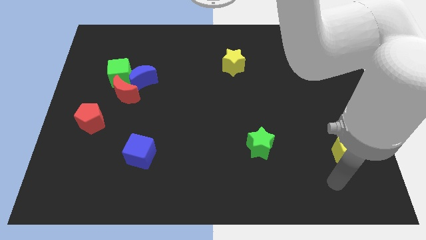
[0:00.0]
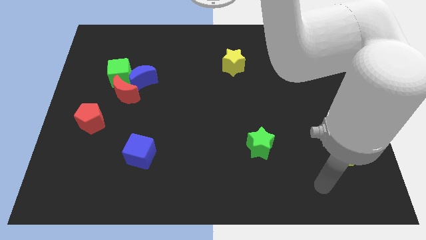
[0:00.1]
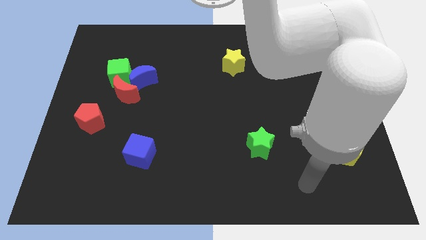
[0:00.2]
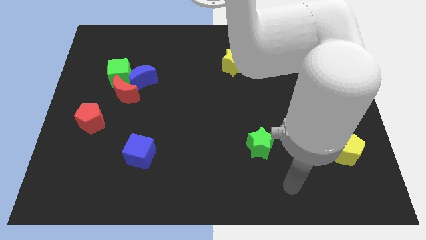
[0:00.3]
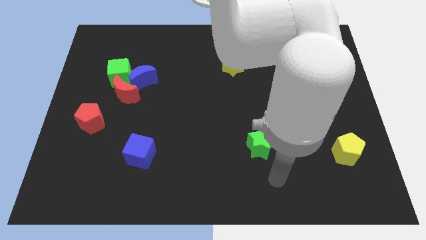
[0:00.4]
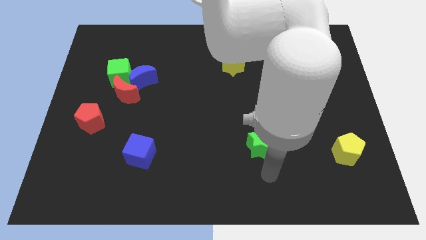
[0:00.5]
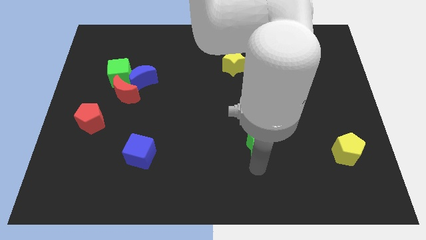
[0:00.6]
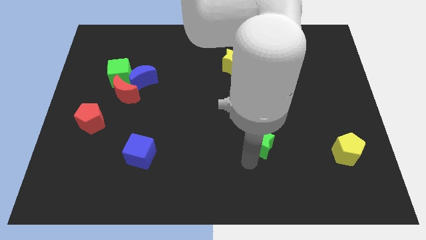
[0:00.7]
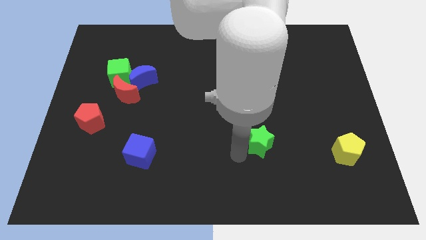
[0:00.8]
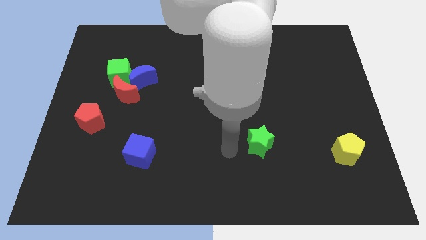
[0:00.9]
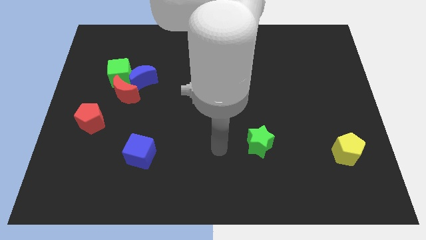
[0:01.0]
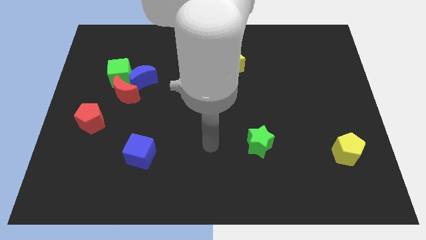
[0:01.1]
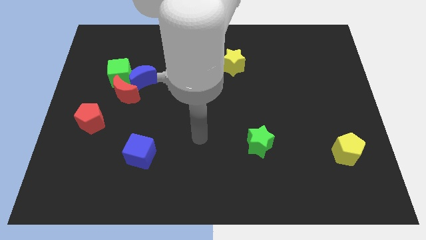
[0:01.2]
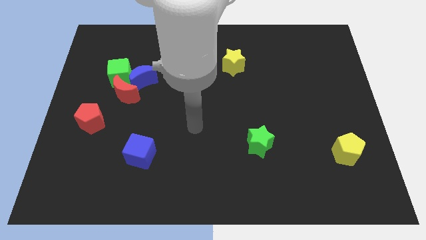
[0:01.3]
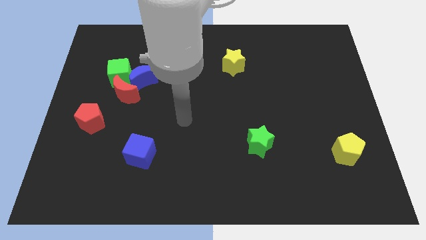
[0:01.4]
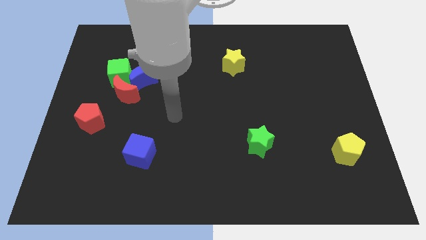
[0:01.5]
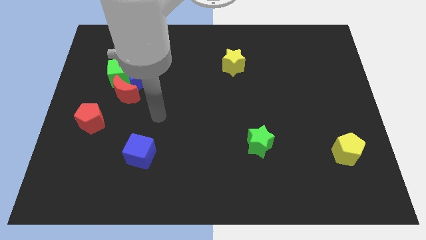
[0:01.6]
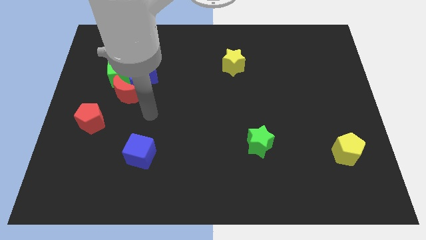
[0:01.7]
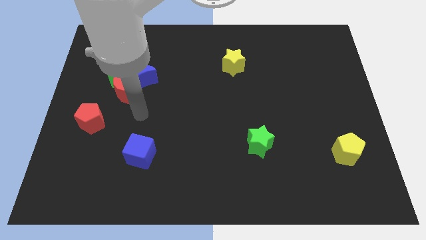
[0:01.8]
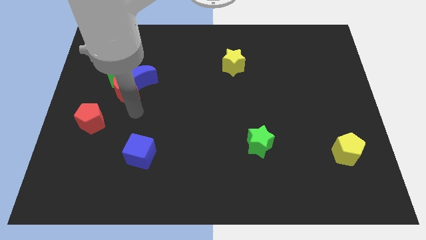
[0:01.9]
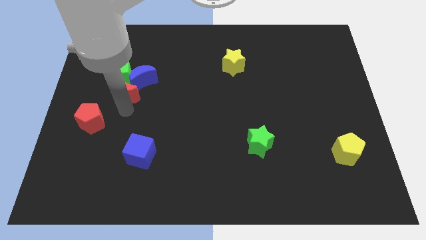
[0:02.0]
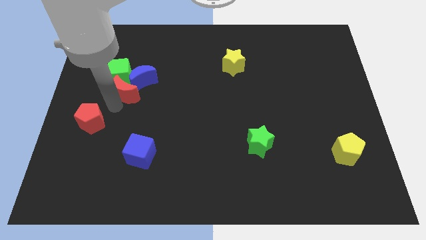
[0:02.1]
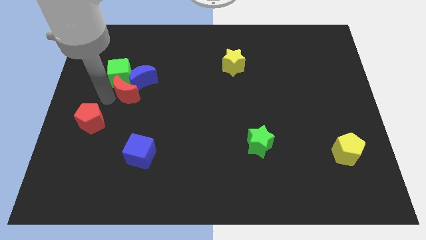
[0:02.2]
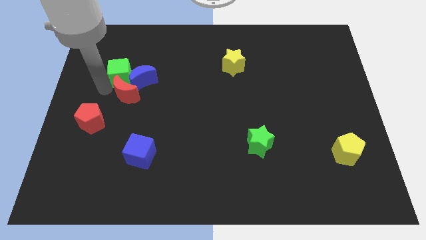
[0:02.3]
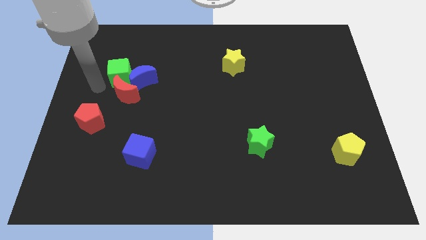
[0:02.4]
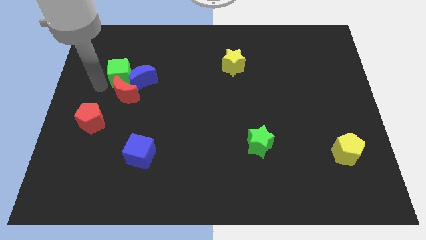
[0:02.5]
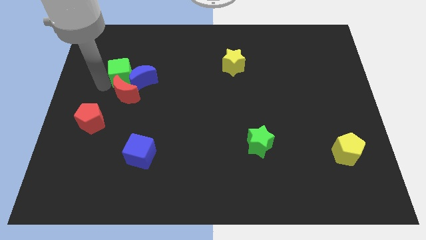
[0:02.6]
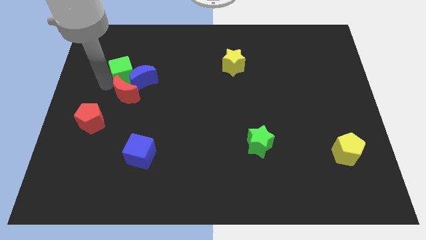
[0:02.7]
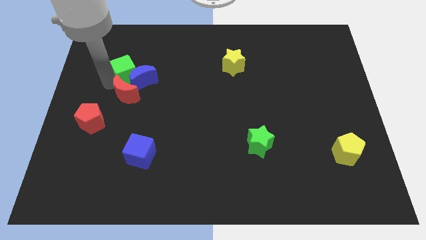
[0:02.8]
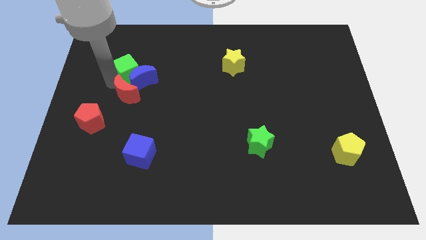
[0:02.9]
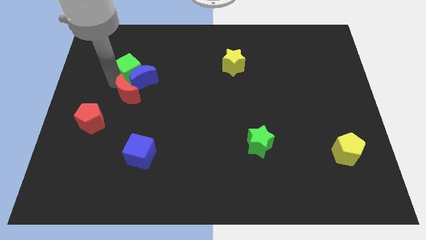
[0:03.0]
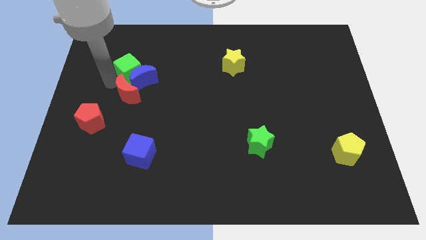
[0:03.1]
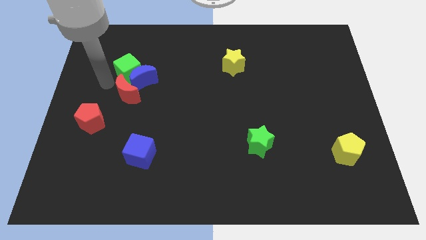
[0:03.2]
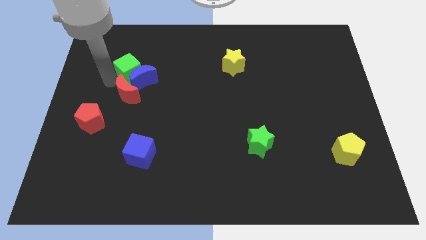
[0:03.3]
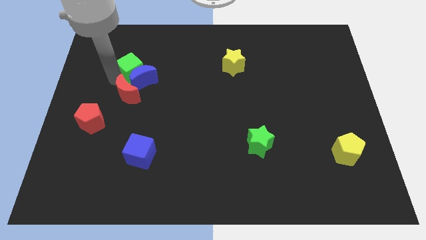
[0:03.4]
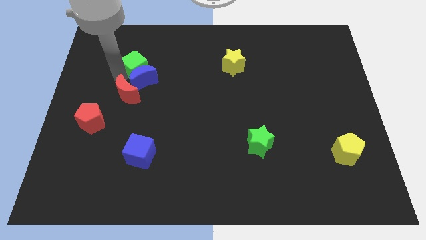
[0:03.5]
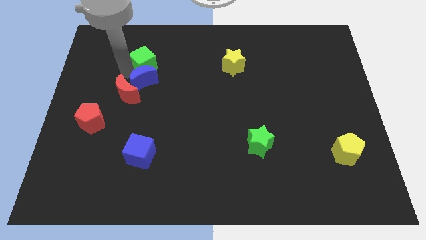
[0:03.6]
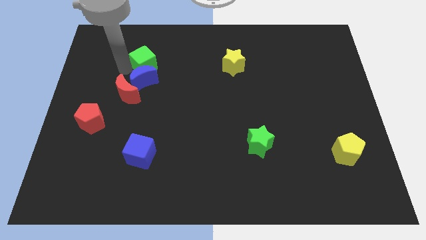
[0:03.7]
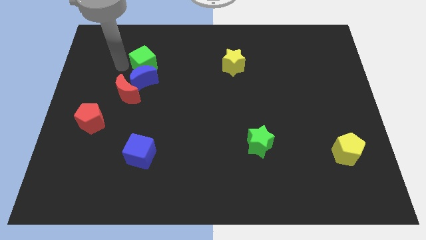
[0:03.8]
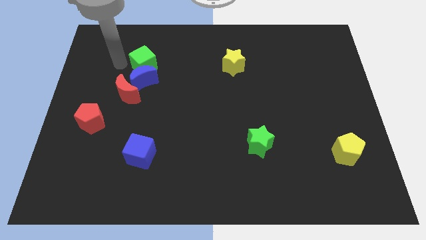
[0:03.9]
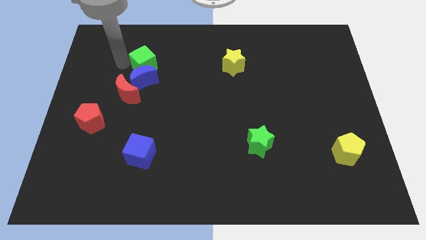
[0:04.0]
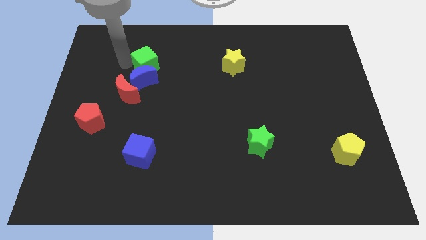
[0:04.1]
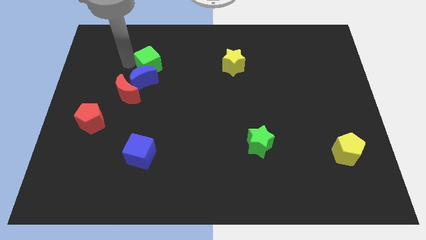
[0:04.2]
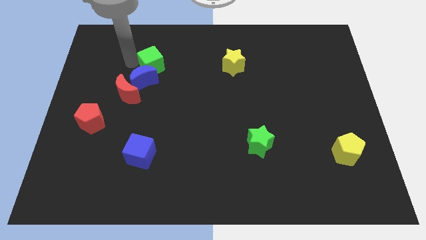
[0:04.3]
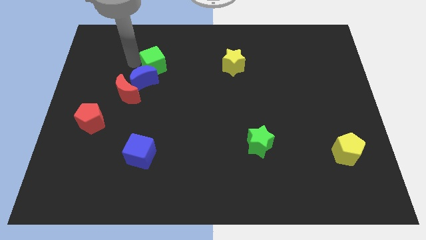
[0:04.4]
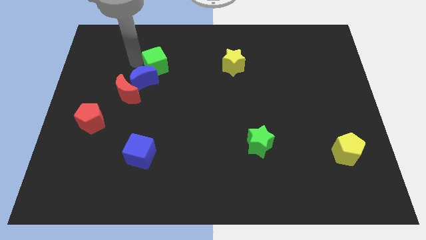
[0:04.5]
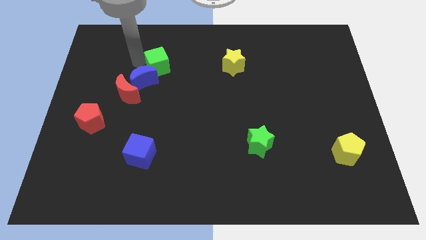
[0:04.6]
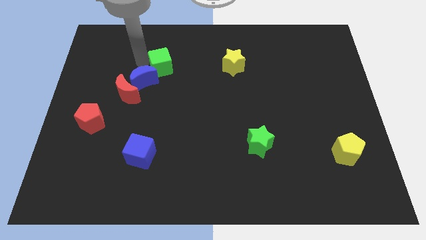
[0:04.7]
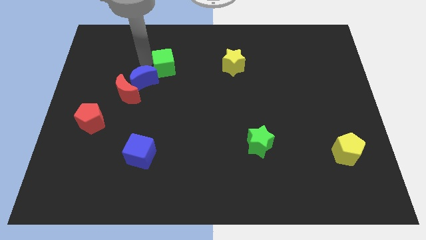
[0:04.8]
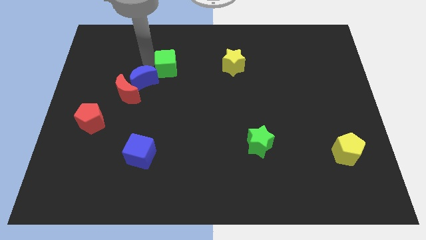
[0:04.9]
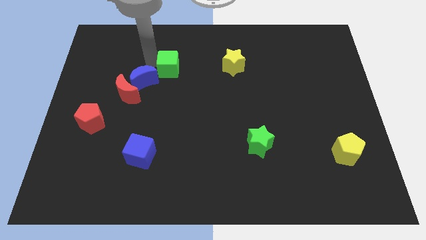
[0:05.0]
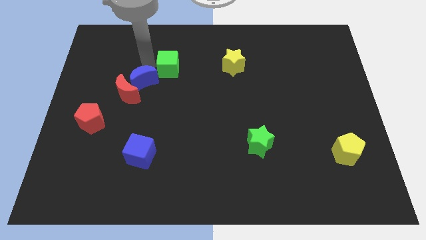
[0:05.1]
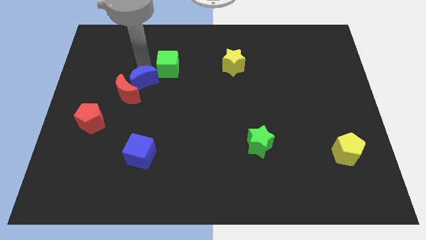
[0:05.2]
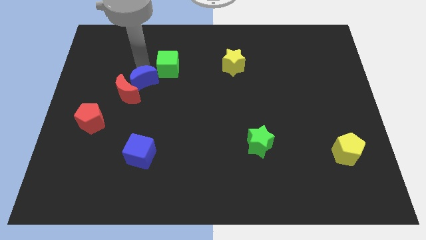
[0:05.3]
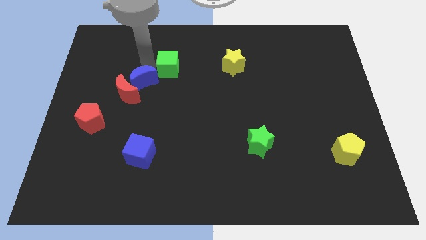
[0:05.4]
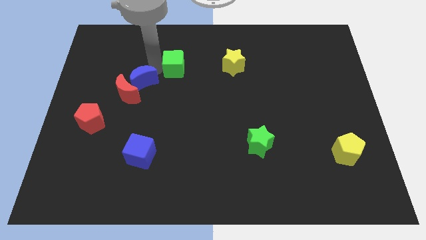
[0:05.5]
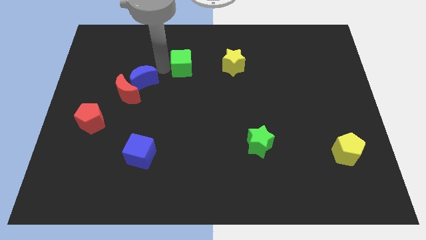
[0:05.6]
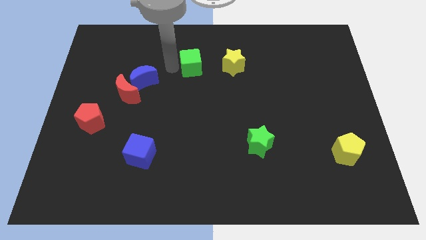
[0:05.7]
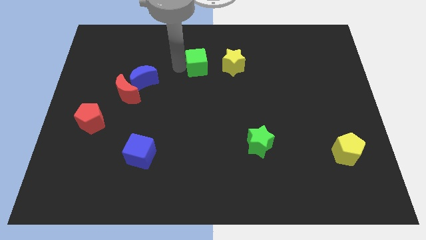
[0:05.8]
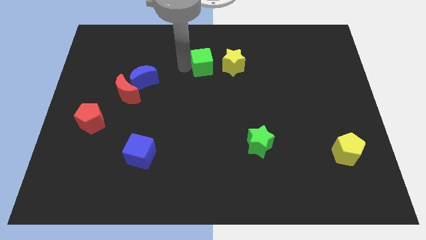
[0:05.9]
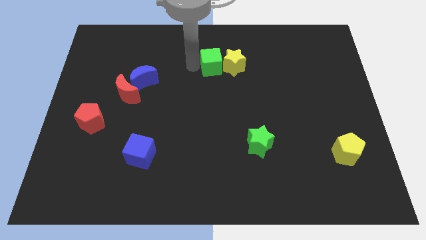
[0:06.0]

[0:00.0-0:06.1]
push the green cube next to the yellow star

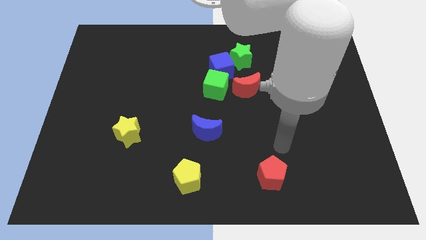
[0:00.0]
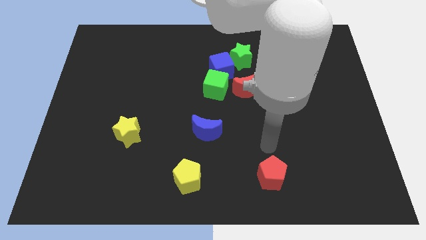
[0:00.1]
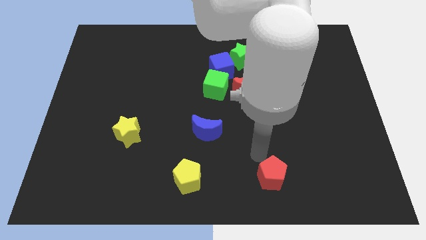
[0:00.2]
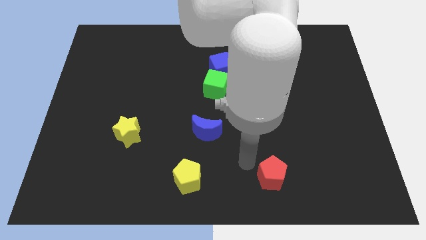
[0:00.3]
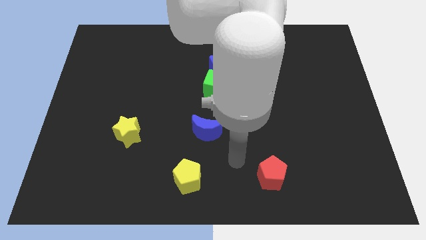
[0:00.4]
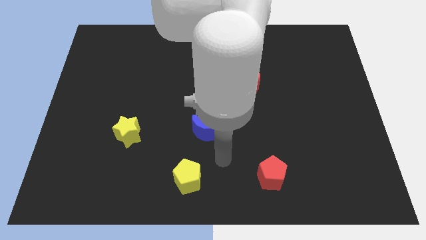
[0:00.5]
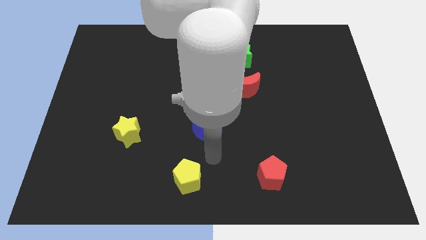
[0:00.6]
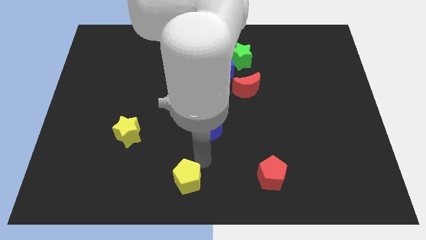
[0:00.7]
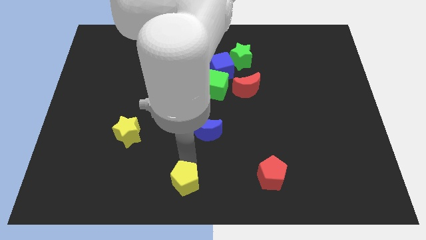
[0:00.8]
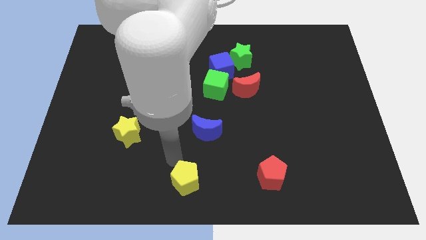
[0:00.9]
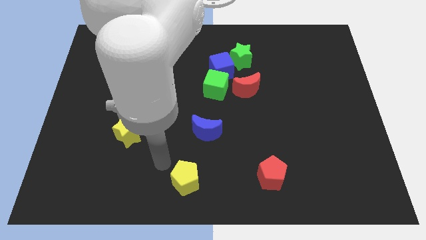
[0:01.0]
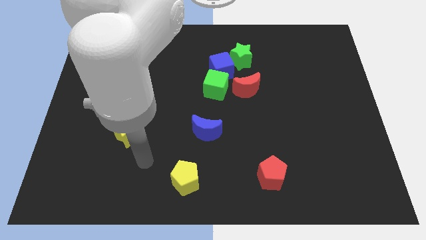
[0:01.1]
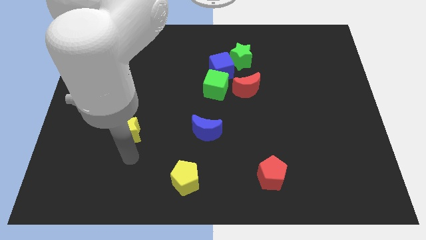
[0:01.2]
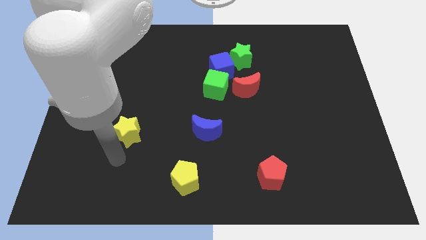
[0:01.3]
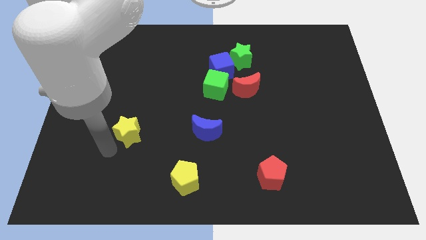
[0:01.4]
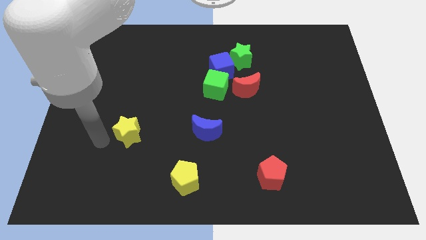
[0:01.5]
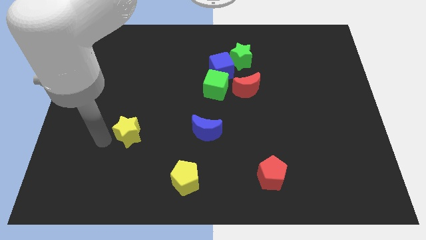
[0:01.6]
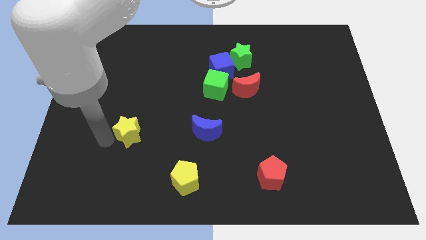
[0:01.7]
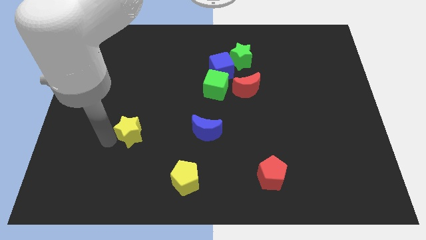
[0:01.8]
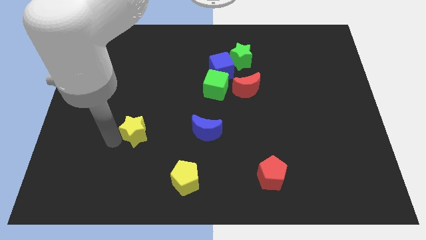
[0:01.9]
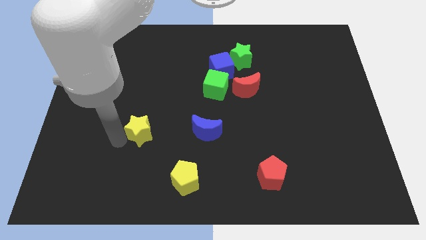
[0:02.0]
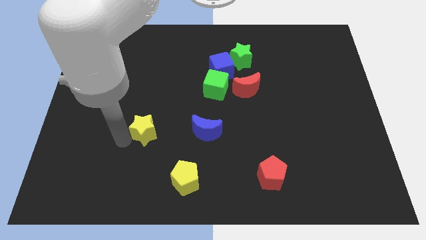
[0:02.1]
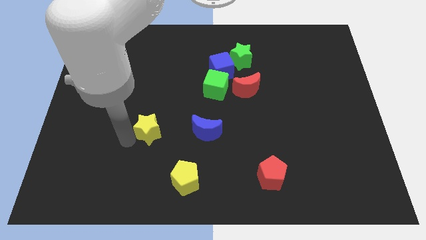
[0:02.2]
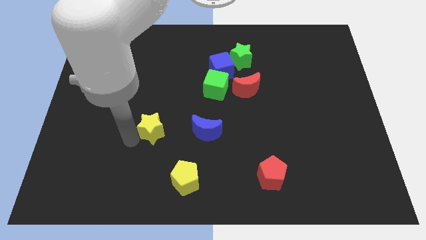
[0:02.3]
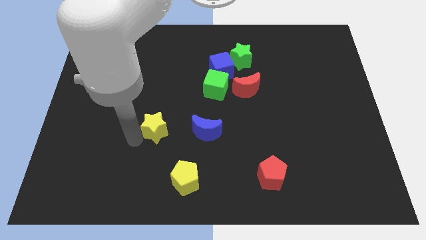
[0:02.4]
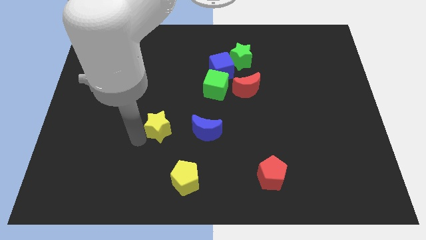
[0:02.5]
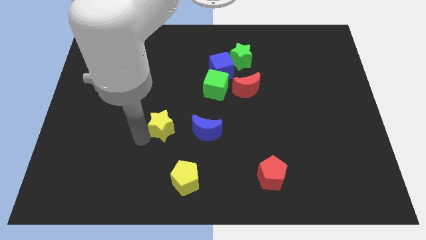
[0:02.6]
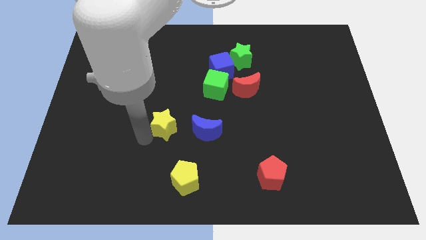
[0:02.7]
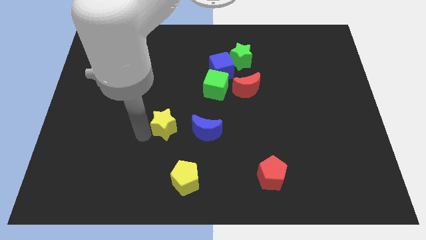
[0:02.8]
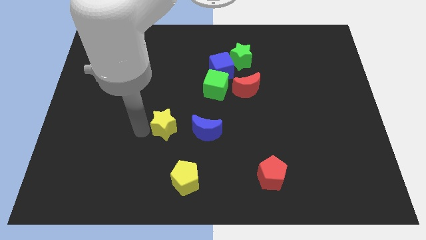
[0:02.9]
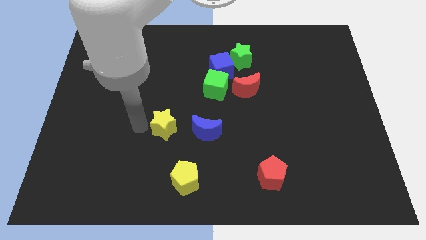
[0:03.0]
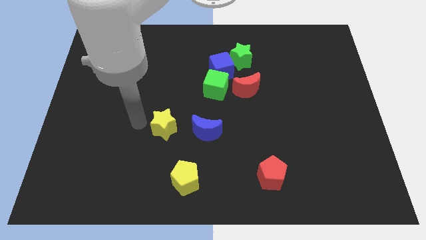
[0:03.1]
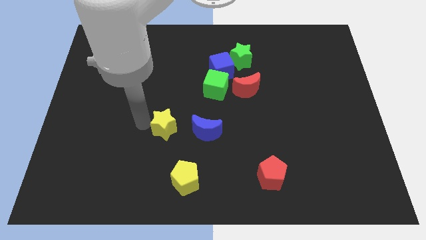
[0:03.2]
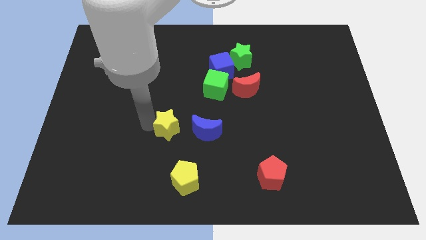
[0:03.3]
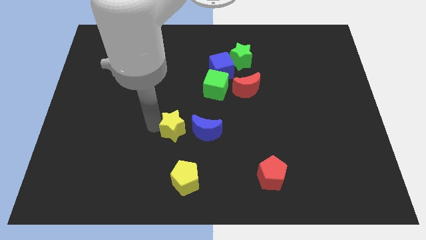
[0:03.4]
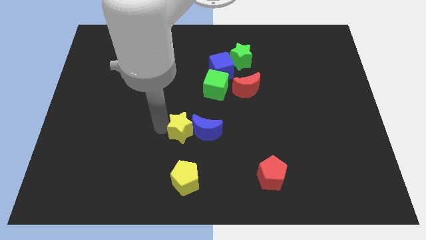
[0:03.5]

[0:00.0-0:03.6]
put the yellow star close to the blue moon
